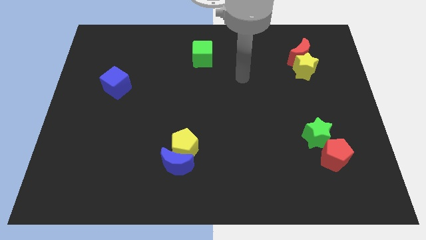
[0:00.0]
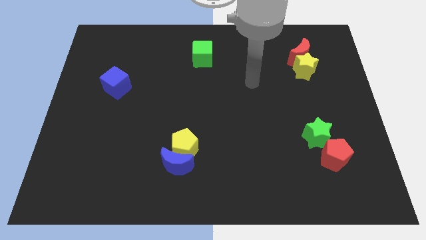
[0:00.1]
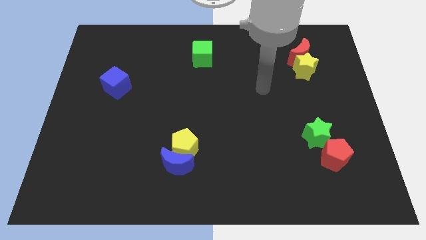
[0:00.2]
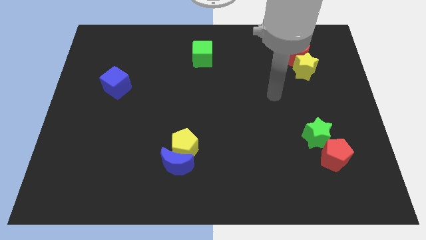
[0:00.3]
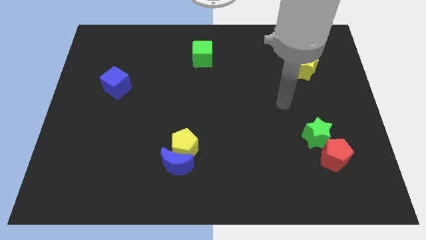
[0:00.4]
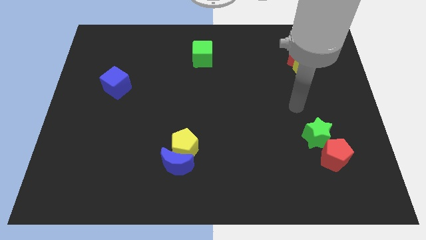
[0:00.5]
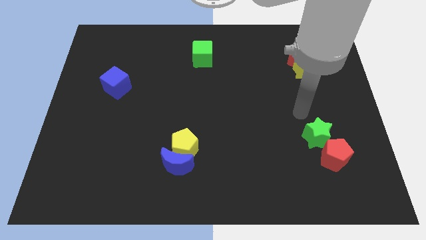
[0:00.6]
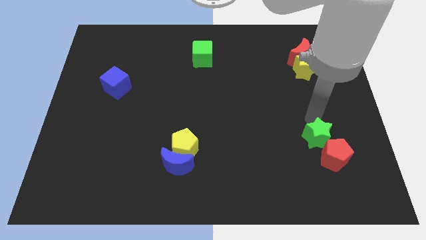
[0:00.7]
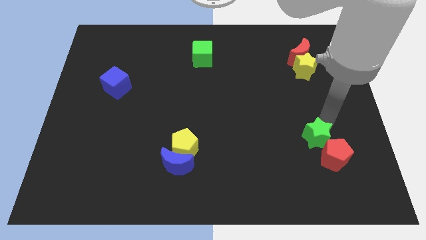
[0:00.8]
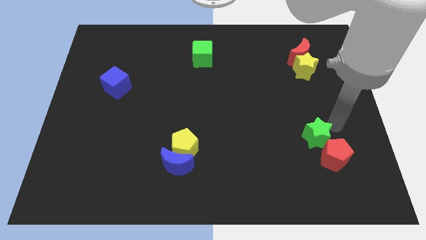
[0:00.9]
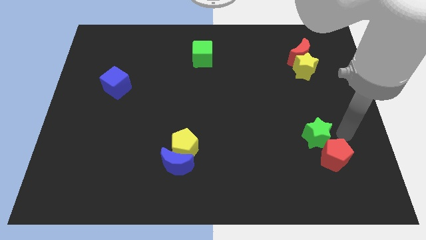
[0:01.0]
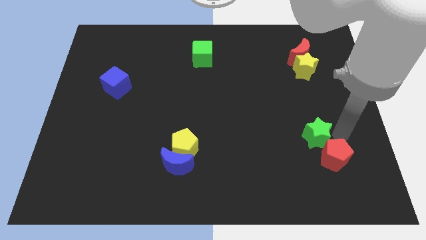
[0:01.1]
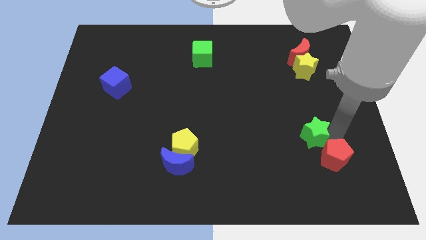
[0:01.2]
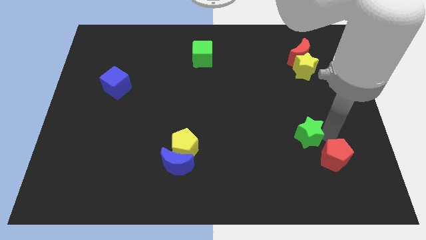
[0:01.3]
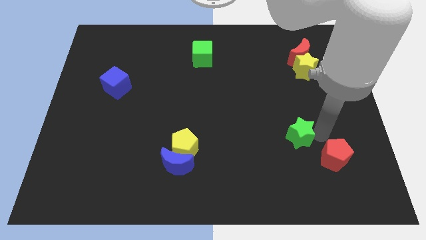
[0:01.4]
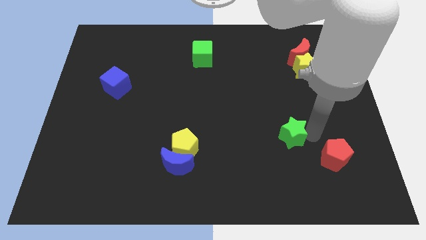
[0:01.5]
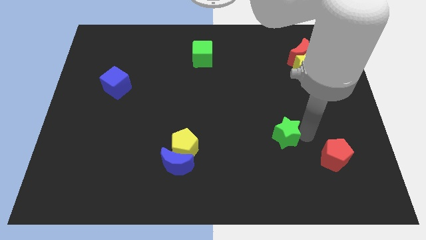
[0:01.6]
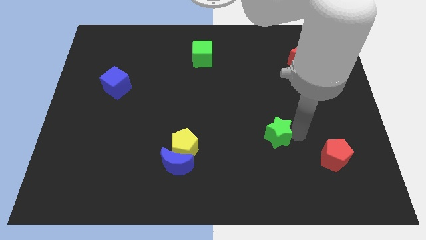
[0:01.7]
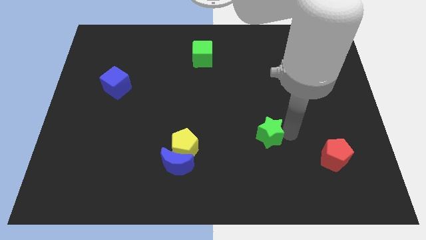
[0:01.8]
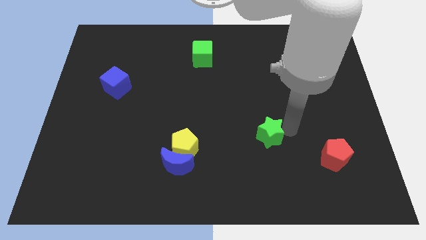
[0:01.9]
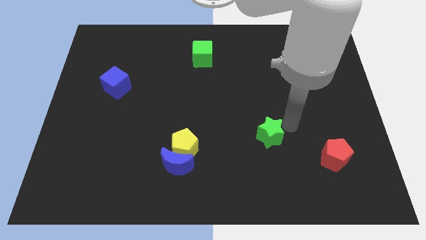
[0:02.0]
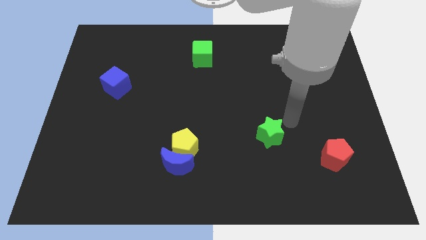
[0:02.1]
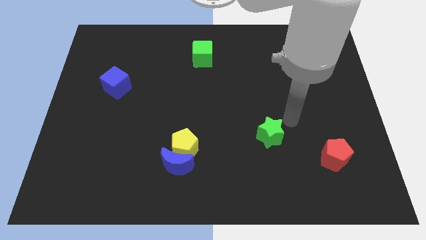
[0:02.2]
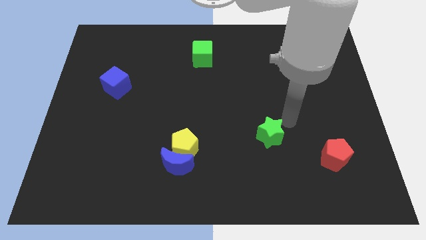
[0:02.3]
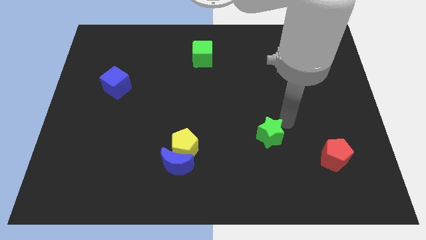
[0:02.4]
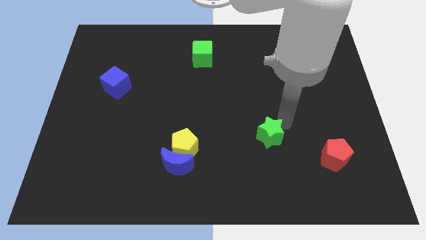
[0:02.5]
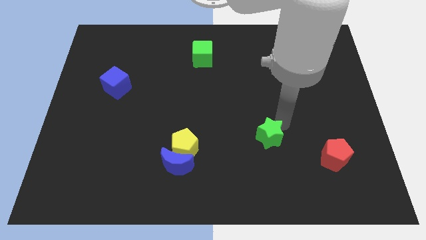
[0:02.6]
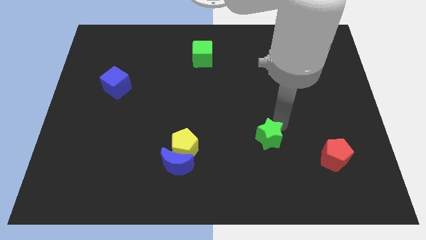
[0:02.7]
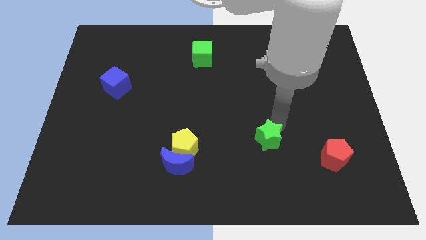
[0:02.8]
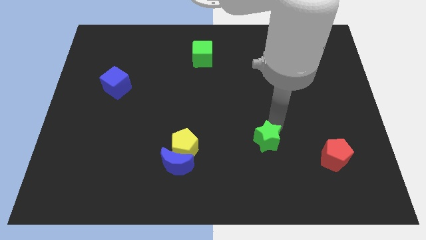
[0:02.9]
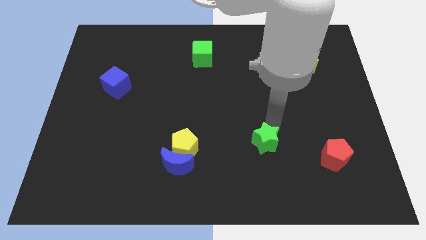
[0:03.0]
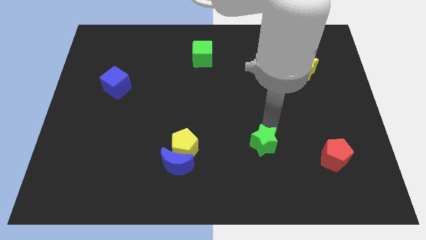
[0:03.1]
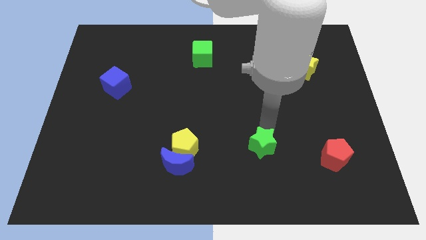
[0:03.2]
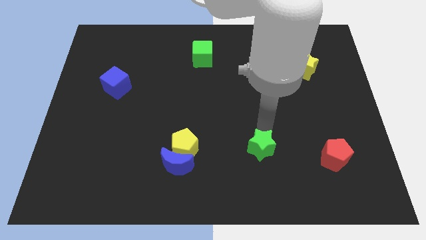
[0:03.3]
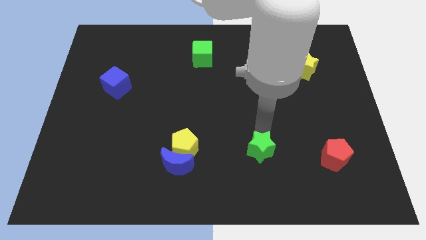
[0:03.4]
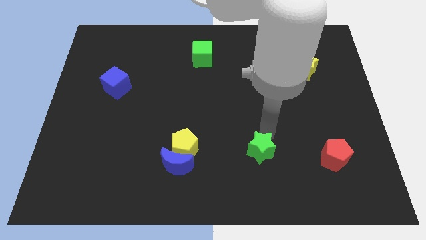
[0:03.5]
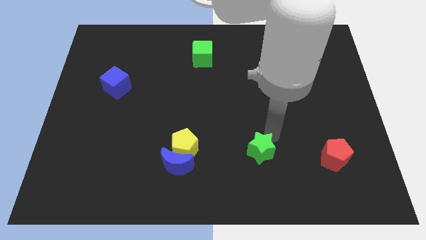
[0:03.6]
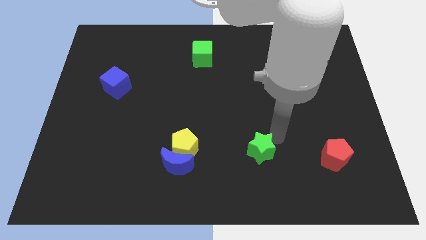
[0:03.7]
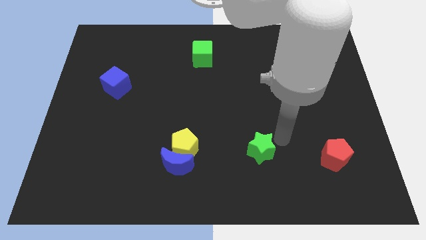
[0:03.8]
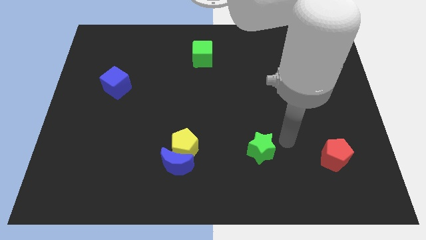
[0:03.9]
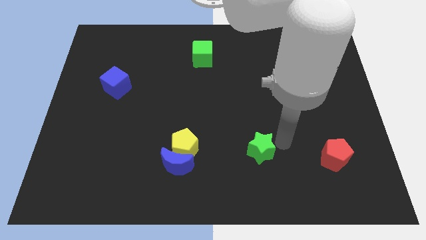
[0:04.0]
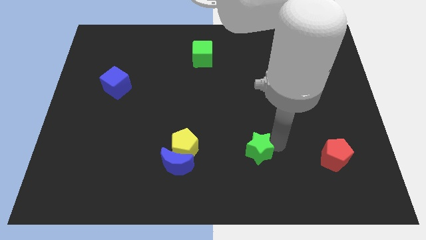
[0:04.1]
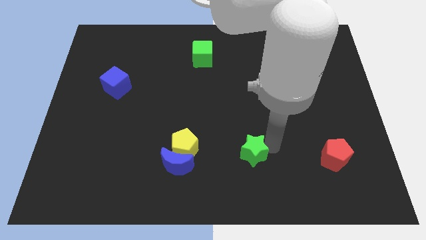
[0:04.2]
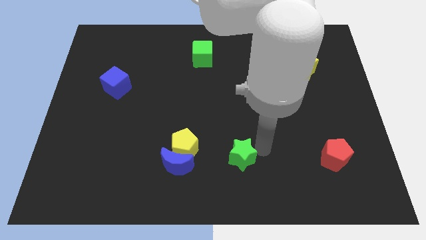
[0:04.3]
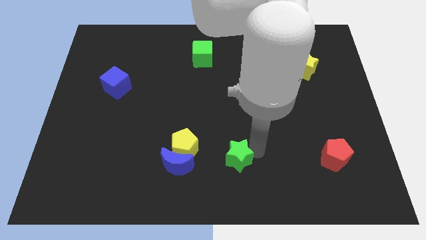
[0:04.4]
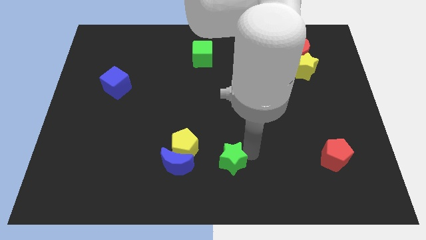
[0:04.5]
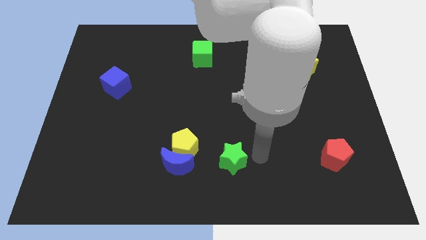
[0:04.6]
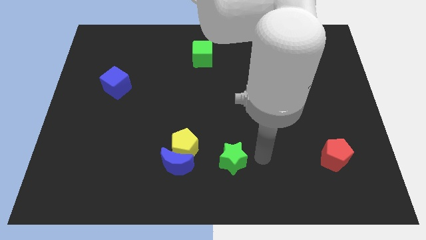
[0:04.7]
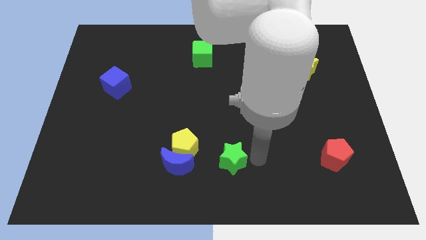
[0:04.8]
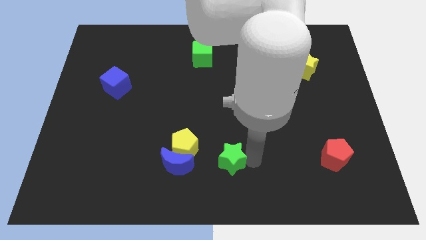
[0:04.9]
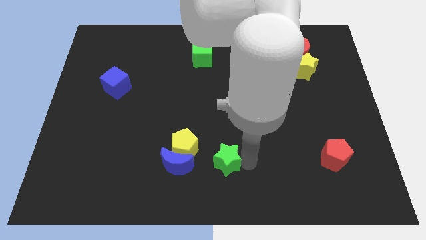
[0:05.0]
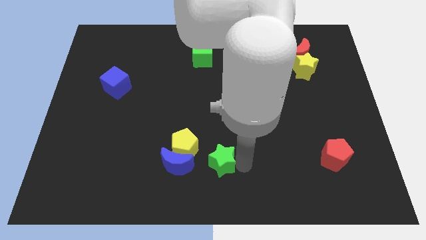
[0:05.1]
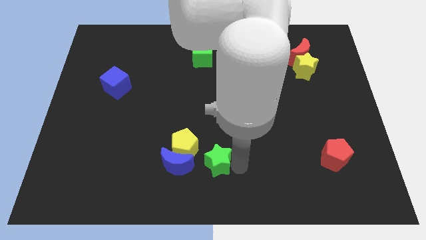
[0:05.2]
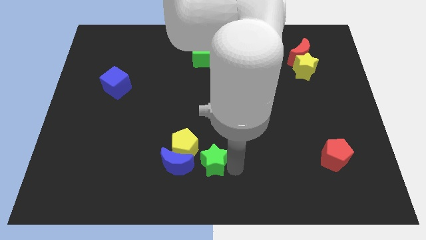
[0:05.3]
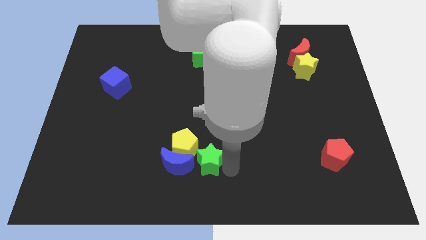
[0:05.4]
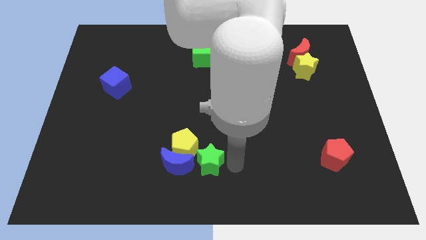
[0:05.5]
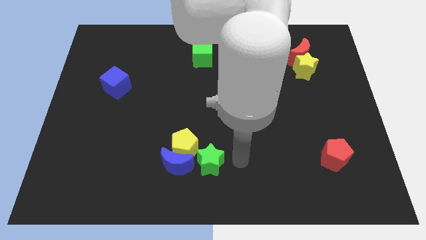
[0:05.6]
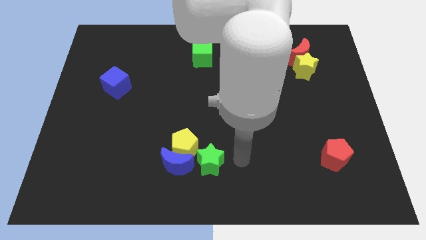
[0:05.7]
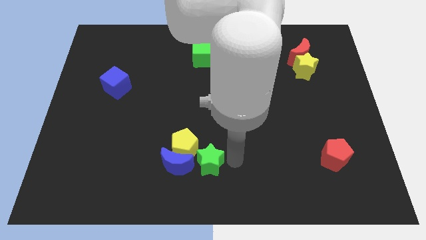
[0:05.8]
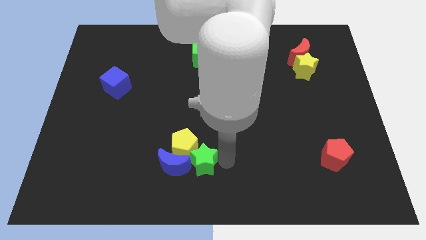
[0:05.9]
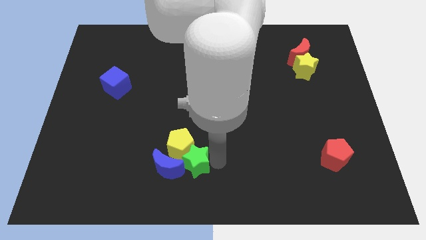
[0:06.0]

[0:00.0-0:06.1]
slide the green star close to the blue moon

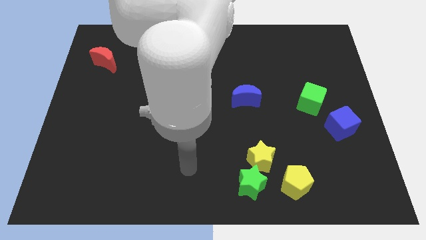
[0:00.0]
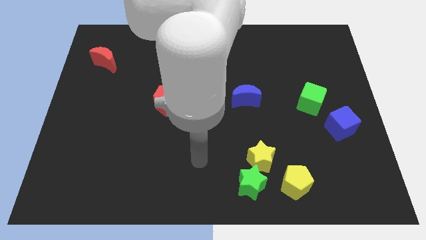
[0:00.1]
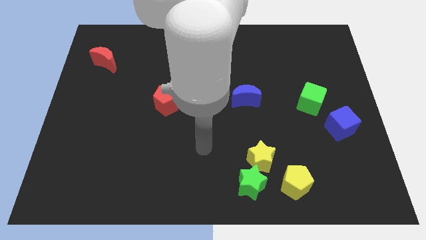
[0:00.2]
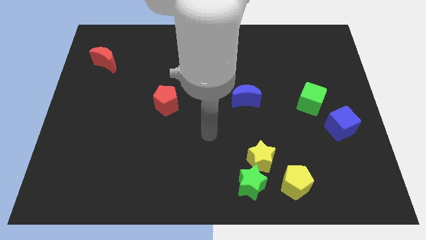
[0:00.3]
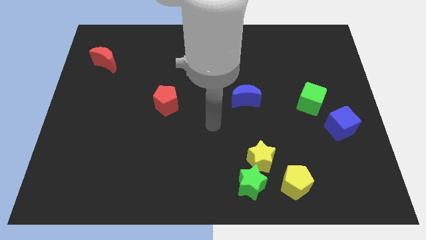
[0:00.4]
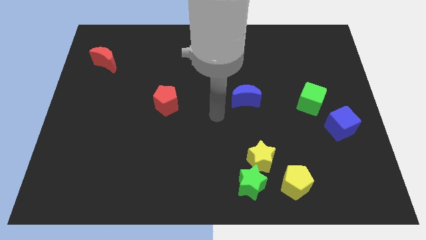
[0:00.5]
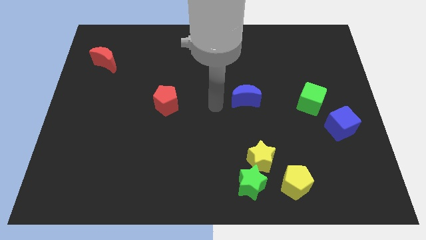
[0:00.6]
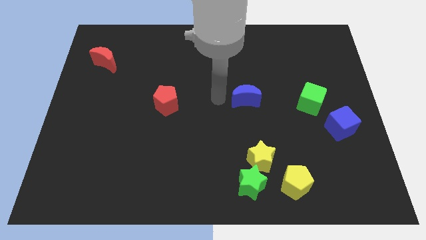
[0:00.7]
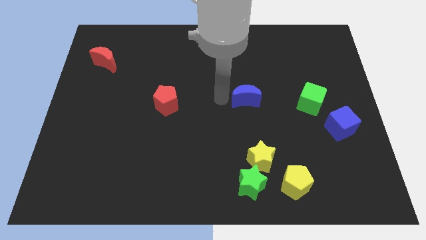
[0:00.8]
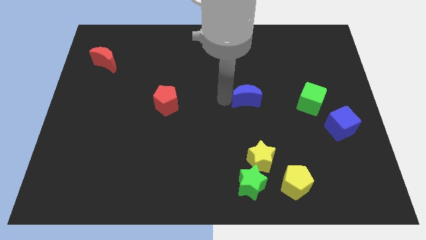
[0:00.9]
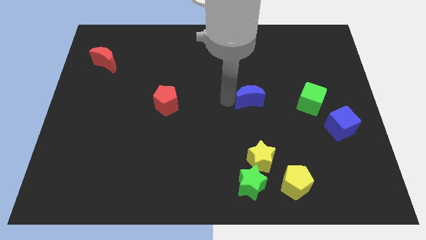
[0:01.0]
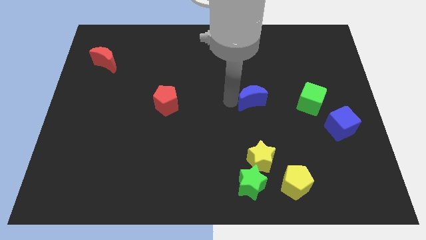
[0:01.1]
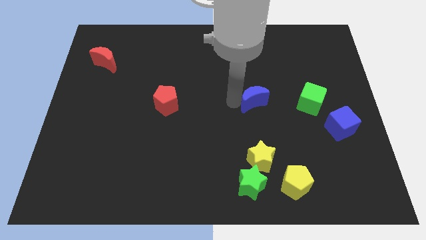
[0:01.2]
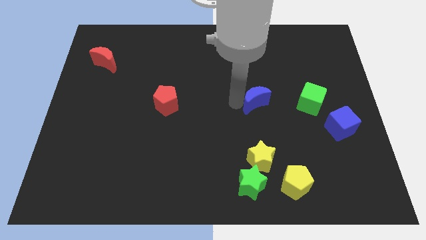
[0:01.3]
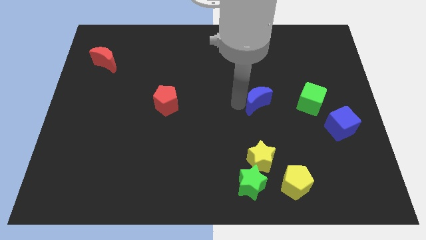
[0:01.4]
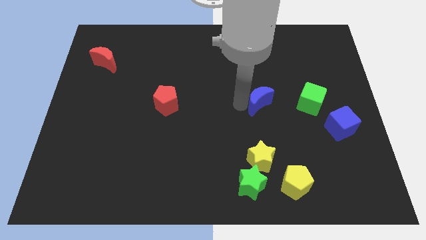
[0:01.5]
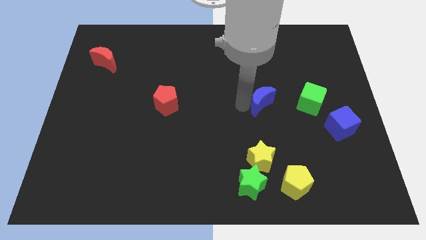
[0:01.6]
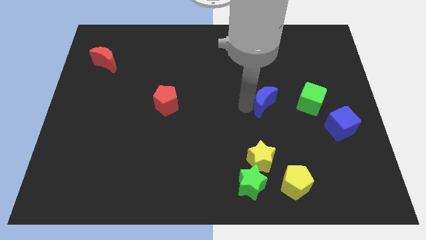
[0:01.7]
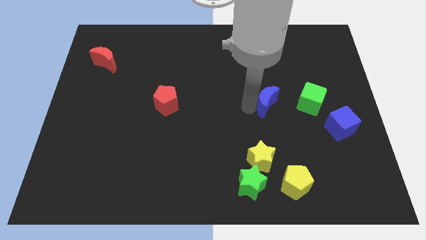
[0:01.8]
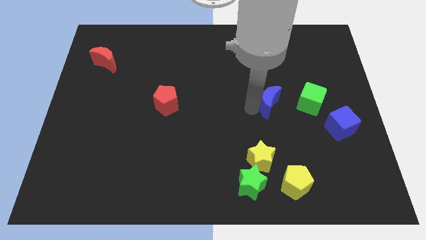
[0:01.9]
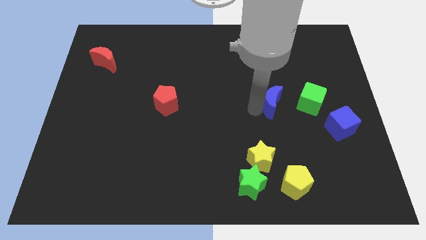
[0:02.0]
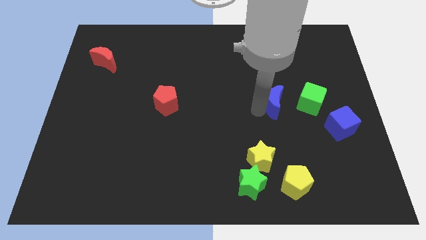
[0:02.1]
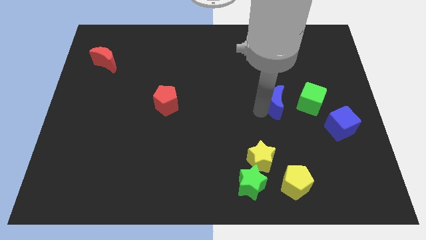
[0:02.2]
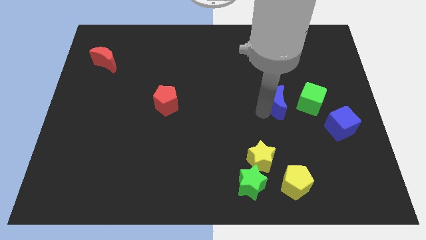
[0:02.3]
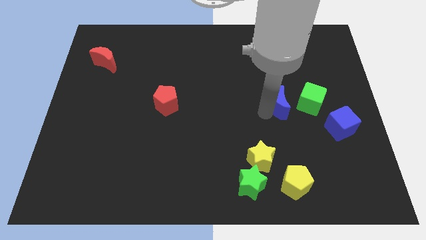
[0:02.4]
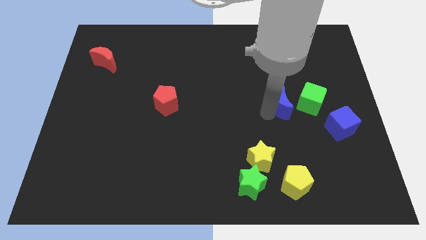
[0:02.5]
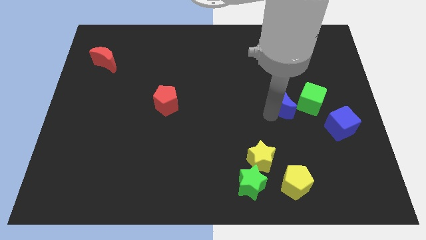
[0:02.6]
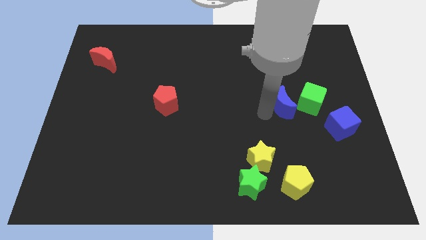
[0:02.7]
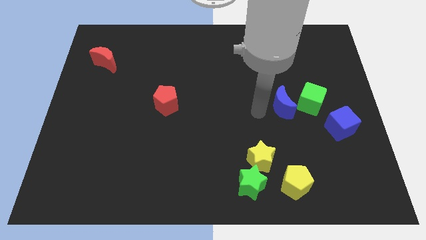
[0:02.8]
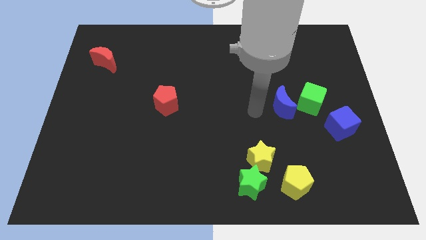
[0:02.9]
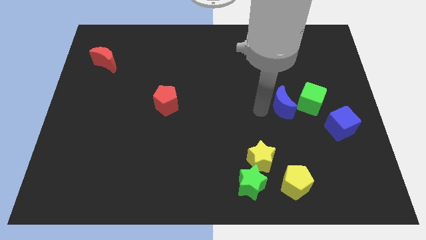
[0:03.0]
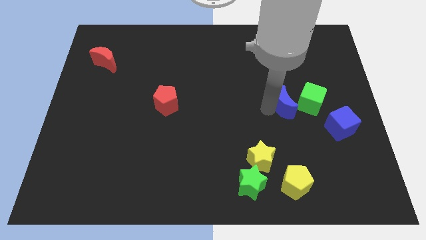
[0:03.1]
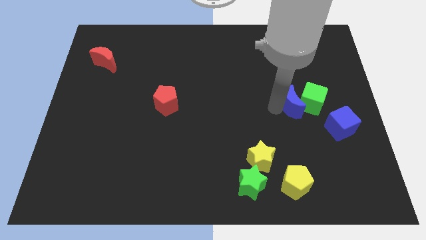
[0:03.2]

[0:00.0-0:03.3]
slide the blue moon towards the green cube
